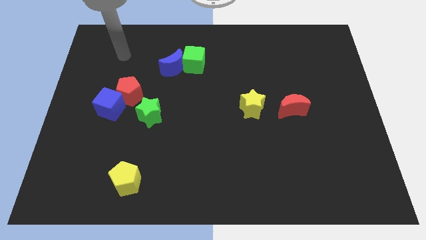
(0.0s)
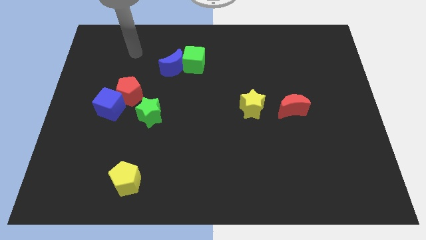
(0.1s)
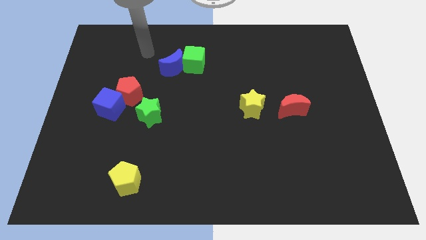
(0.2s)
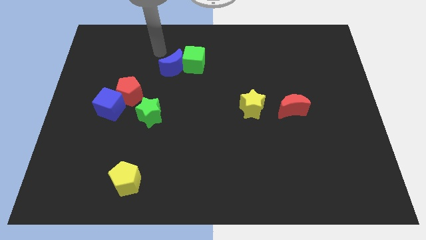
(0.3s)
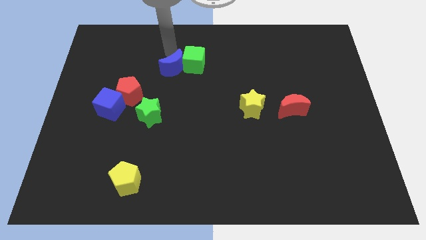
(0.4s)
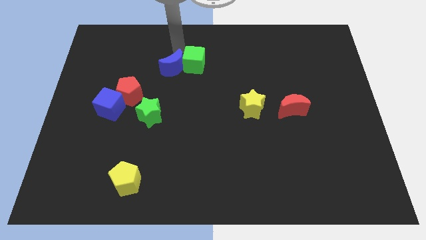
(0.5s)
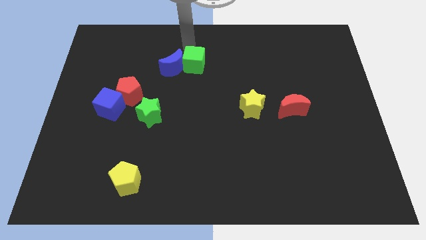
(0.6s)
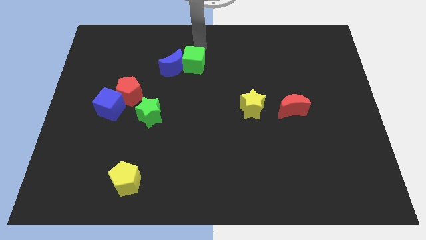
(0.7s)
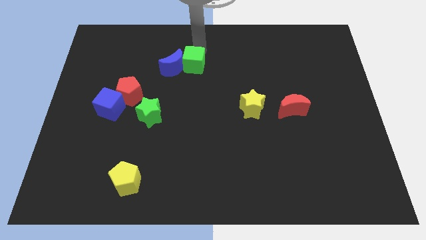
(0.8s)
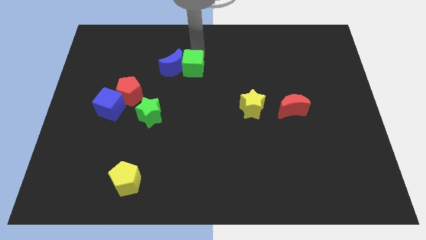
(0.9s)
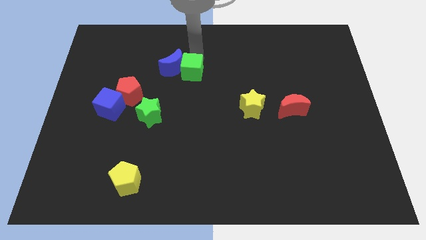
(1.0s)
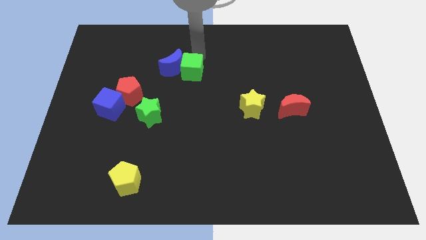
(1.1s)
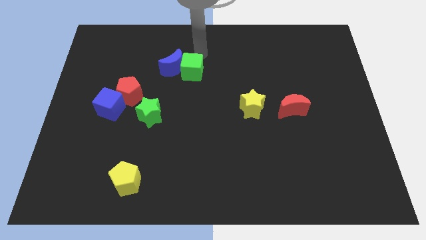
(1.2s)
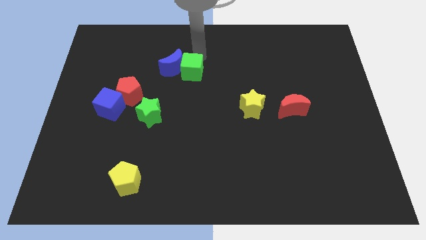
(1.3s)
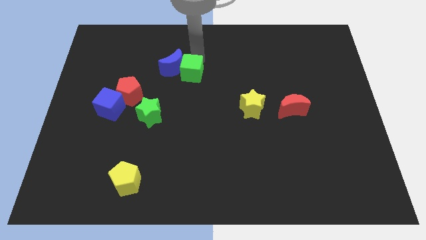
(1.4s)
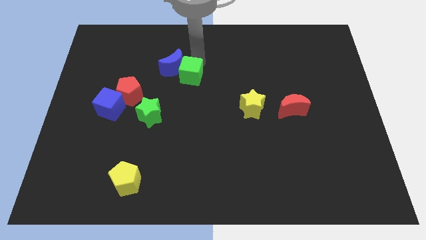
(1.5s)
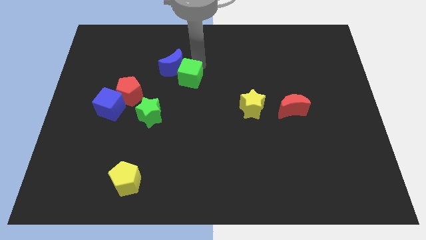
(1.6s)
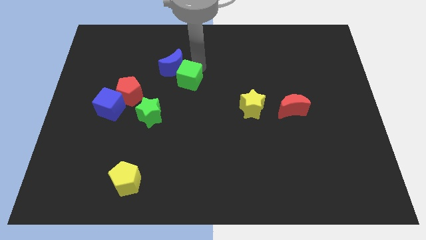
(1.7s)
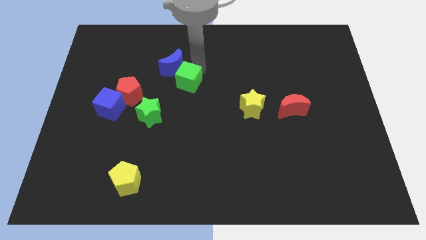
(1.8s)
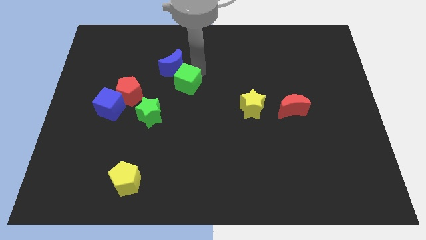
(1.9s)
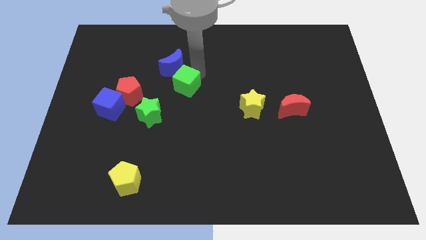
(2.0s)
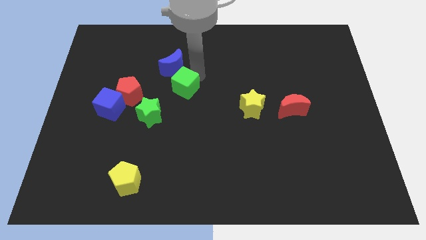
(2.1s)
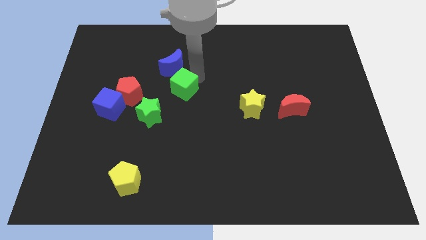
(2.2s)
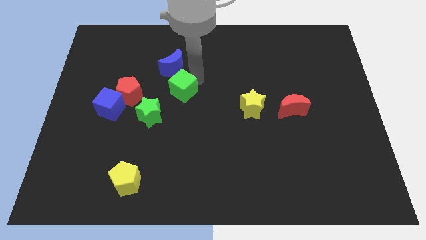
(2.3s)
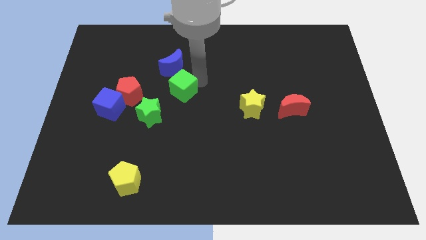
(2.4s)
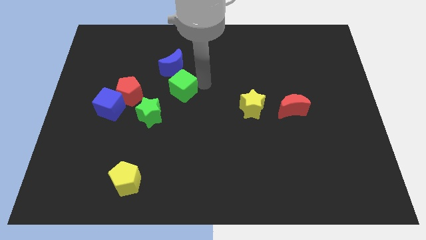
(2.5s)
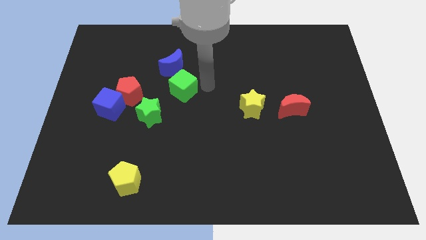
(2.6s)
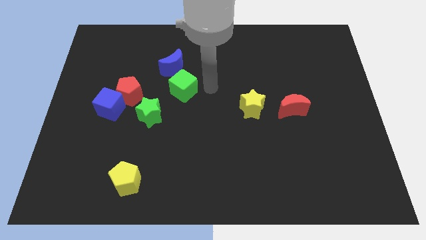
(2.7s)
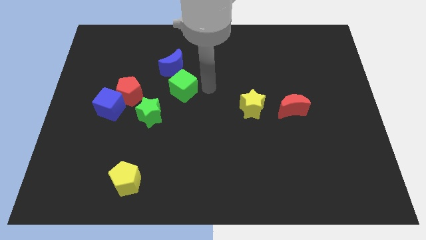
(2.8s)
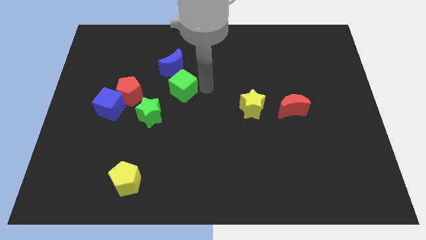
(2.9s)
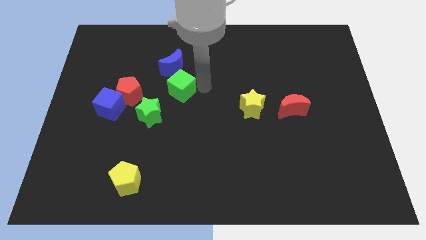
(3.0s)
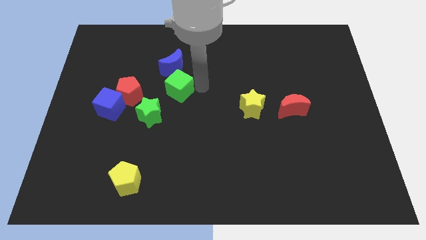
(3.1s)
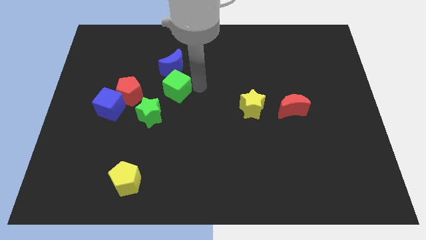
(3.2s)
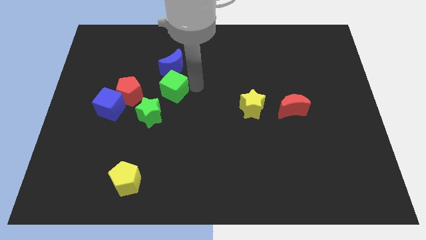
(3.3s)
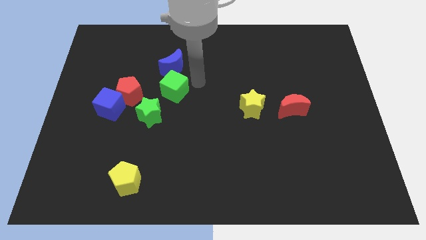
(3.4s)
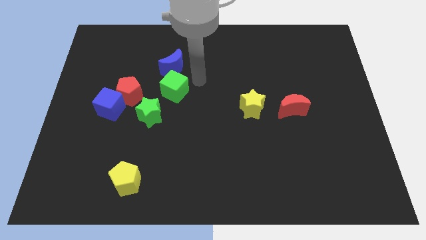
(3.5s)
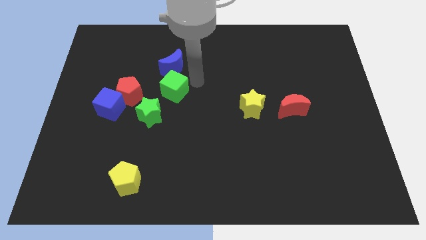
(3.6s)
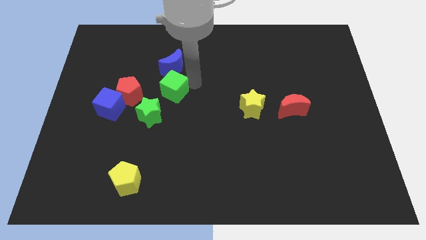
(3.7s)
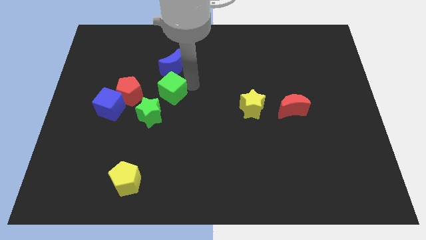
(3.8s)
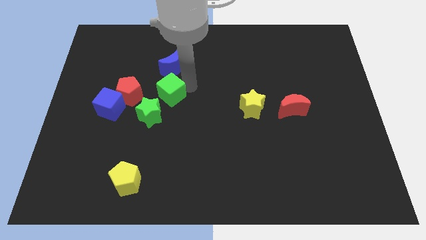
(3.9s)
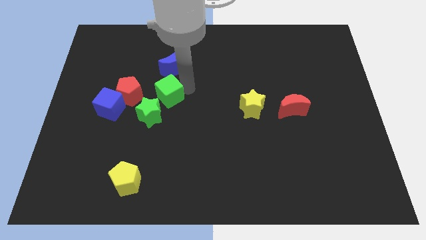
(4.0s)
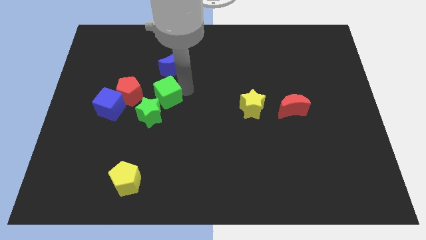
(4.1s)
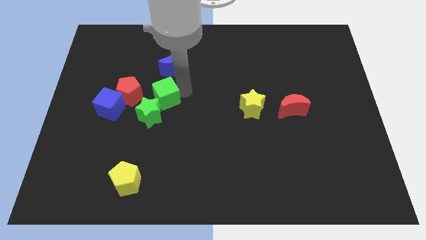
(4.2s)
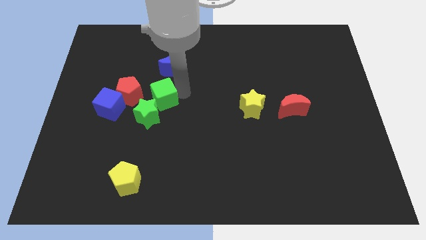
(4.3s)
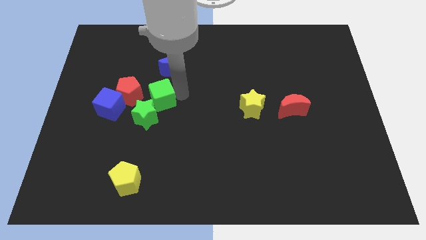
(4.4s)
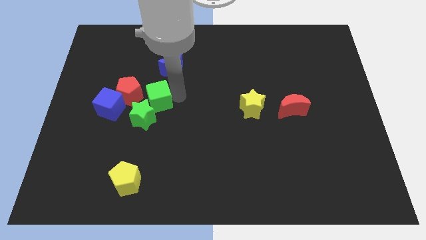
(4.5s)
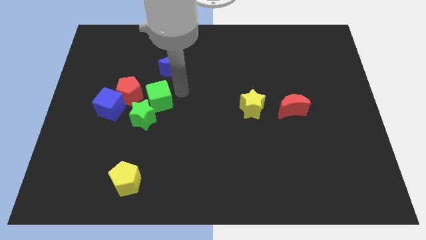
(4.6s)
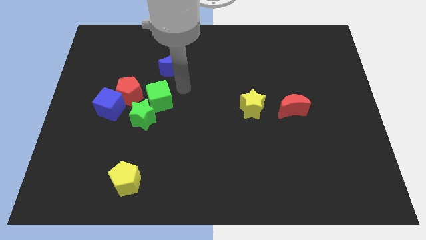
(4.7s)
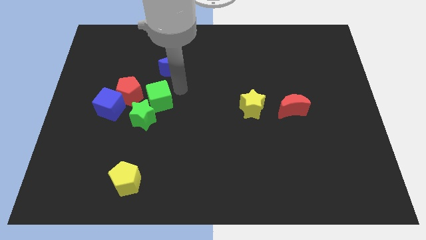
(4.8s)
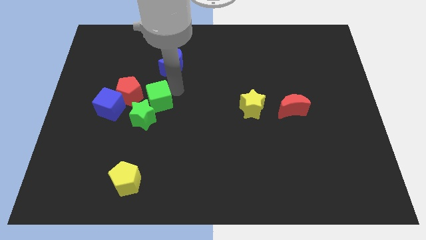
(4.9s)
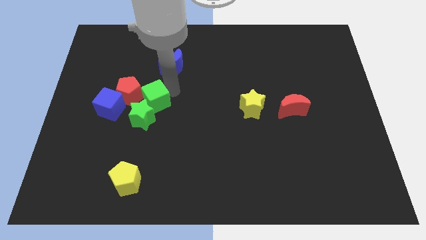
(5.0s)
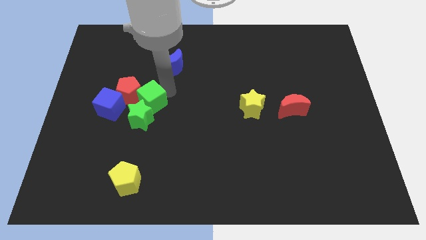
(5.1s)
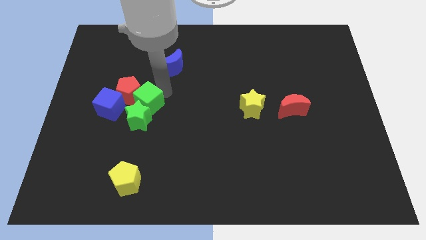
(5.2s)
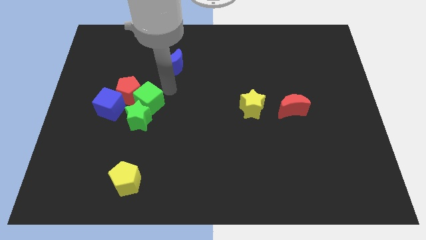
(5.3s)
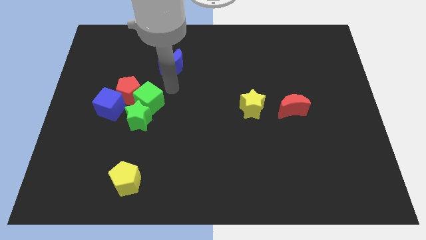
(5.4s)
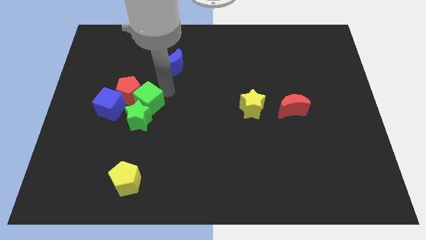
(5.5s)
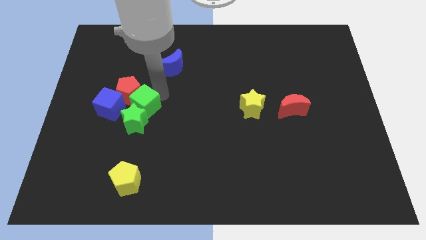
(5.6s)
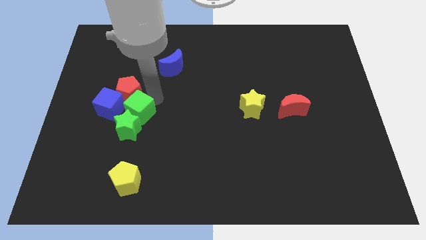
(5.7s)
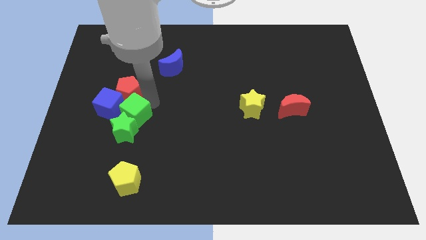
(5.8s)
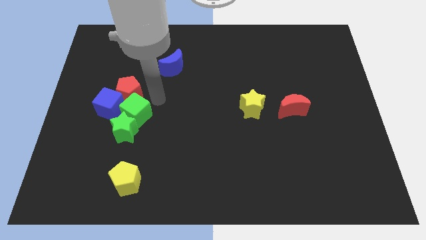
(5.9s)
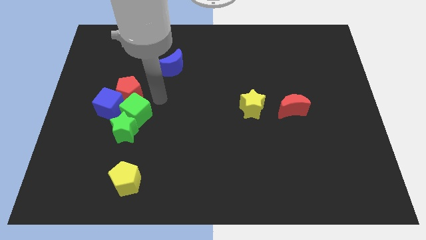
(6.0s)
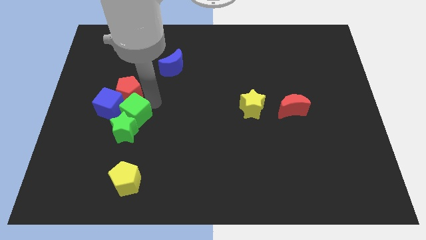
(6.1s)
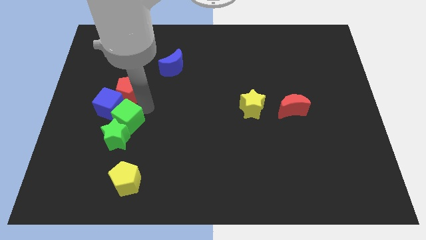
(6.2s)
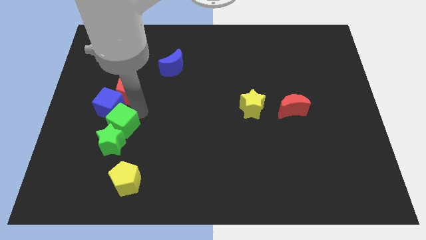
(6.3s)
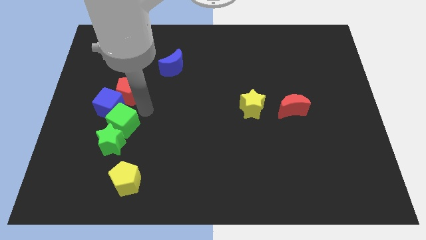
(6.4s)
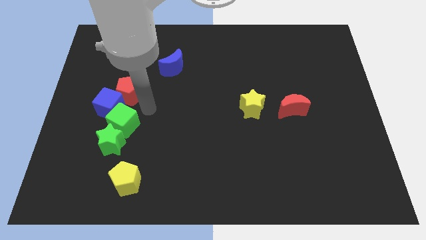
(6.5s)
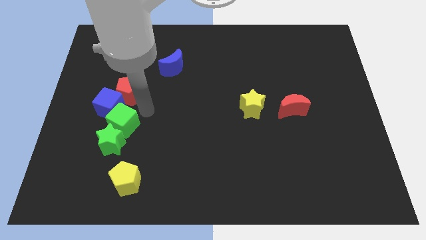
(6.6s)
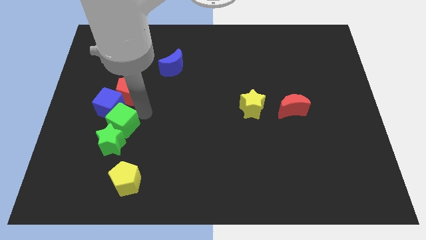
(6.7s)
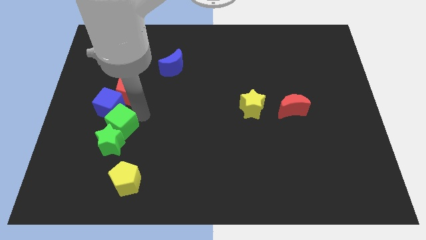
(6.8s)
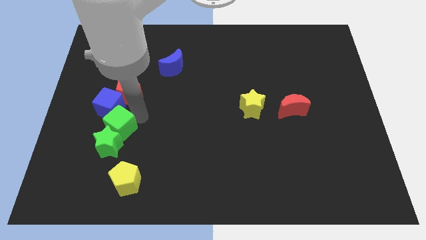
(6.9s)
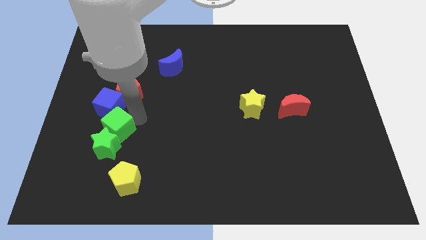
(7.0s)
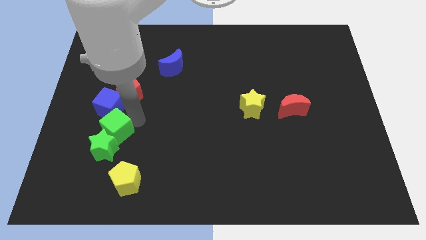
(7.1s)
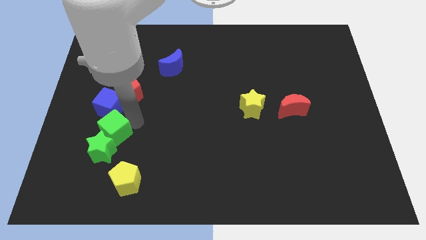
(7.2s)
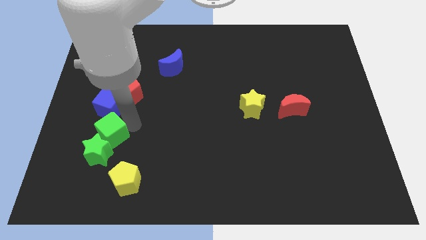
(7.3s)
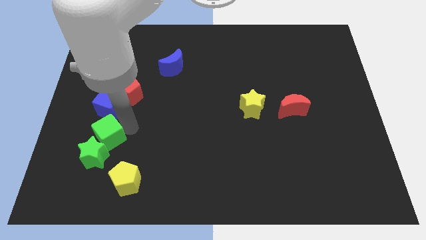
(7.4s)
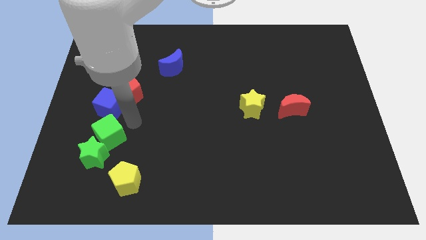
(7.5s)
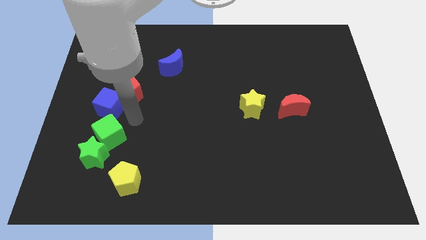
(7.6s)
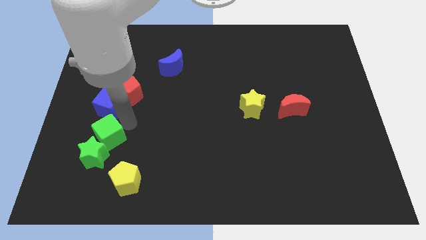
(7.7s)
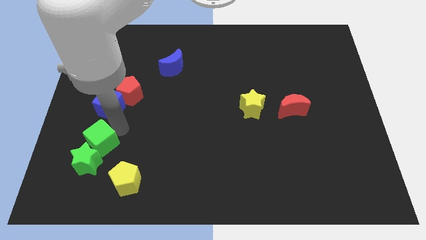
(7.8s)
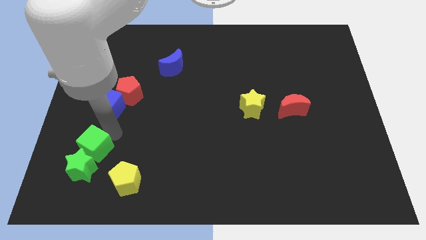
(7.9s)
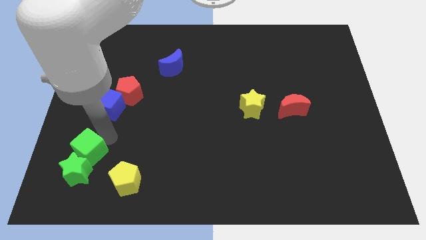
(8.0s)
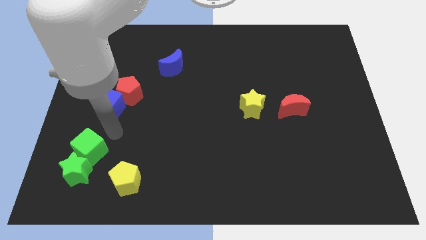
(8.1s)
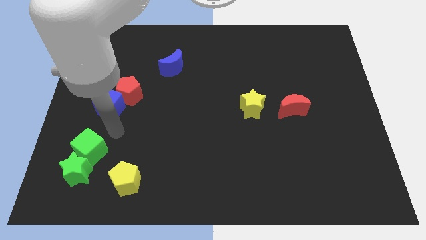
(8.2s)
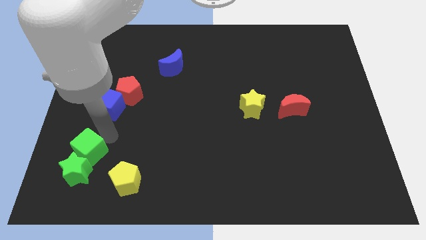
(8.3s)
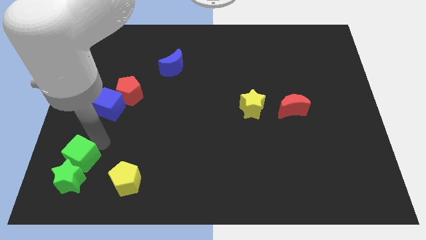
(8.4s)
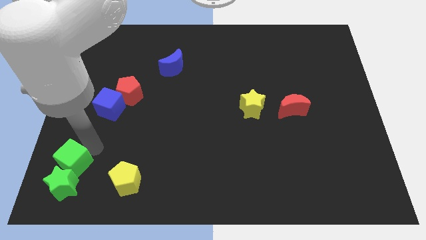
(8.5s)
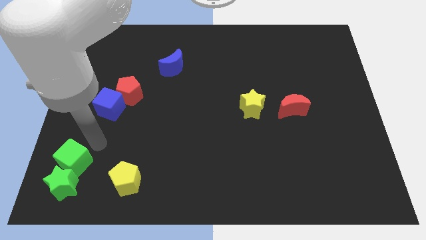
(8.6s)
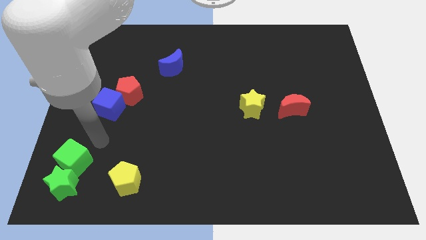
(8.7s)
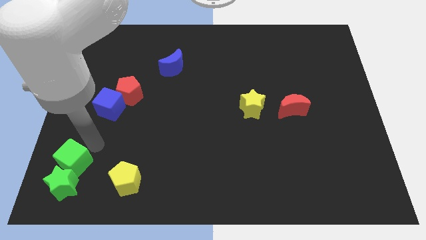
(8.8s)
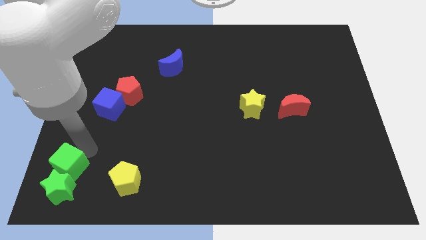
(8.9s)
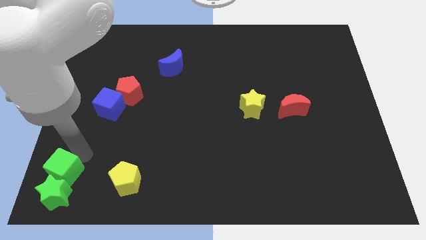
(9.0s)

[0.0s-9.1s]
push the green cube to the lower left corner
